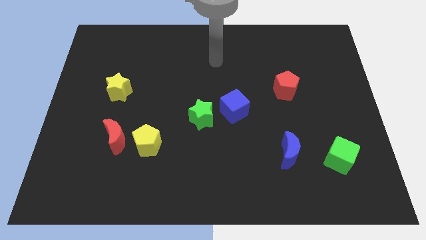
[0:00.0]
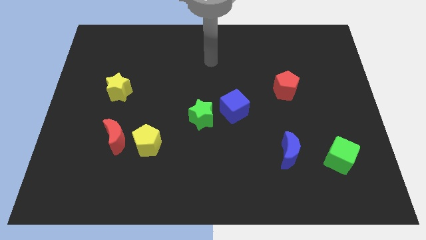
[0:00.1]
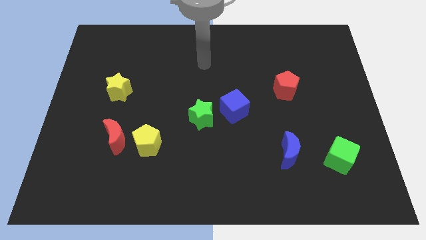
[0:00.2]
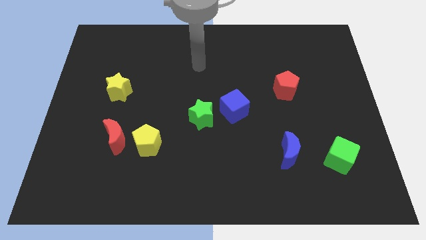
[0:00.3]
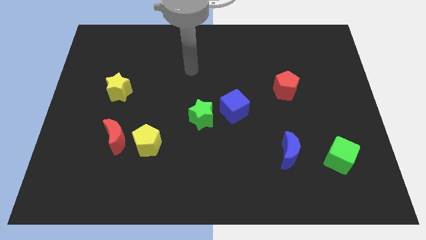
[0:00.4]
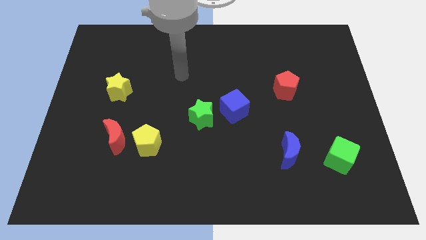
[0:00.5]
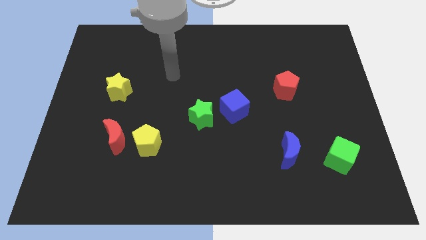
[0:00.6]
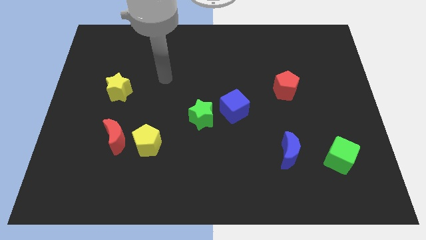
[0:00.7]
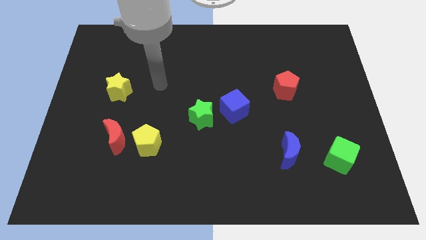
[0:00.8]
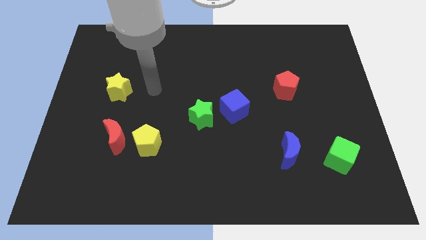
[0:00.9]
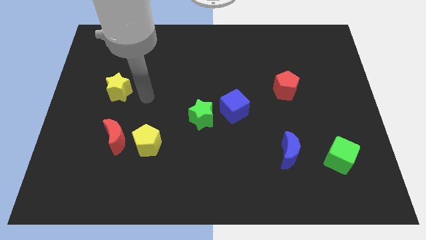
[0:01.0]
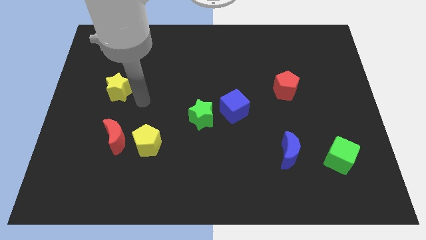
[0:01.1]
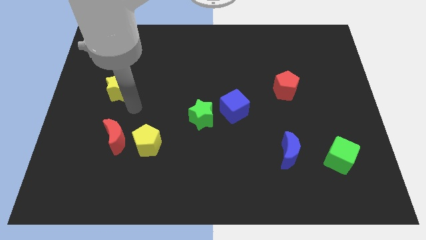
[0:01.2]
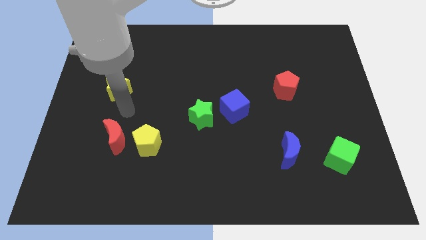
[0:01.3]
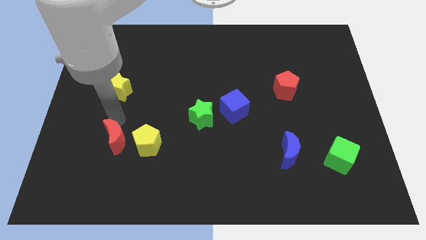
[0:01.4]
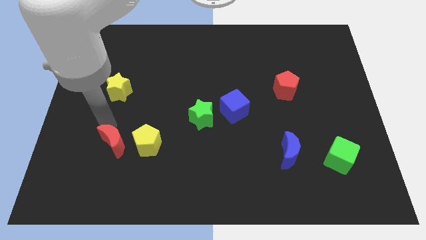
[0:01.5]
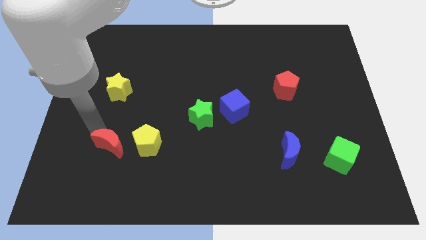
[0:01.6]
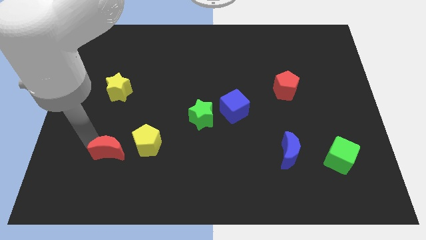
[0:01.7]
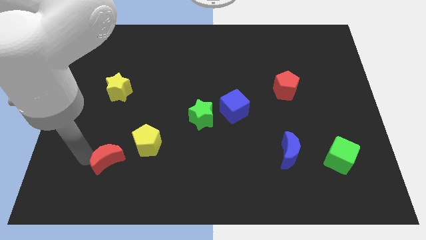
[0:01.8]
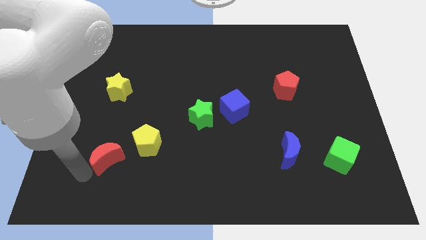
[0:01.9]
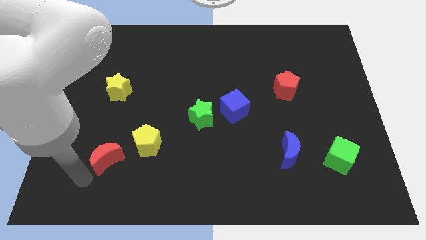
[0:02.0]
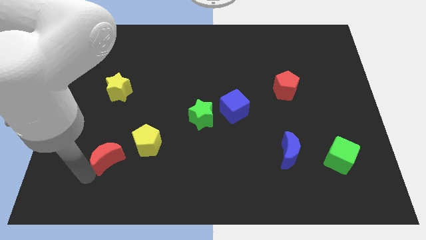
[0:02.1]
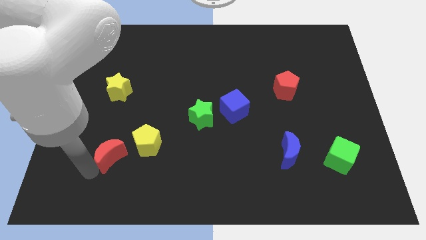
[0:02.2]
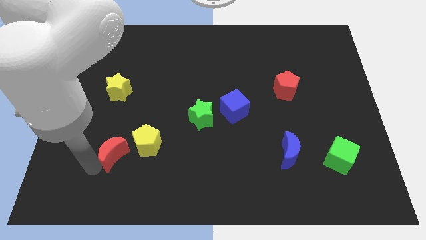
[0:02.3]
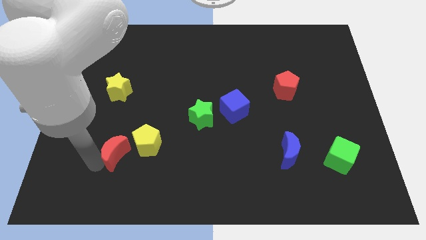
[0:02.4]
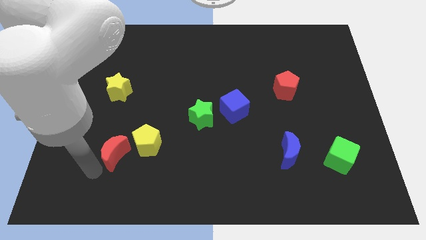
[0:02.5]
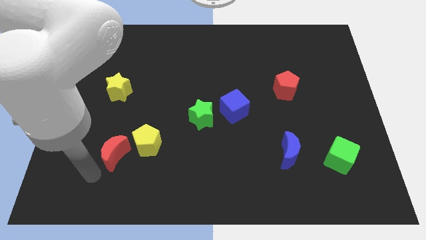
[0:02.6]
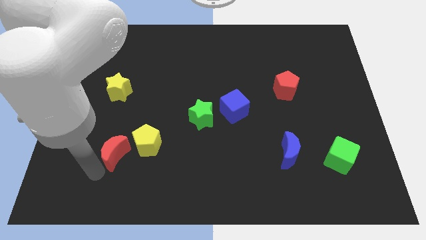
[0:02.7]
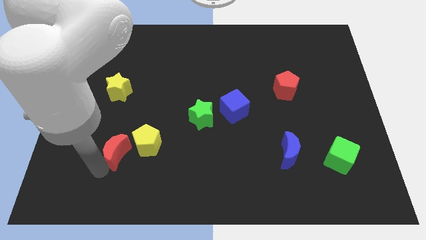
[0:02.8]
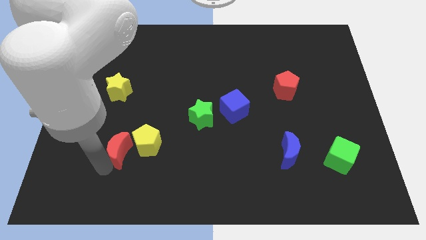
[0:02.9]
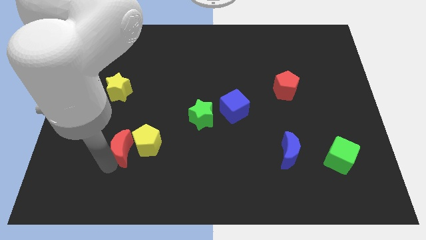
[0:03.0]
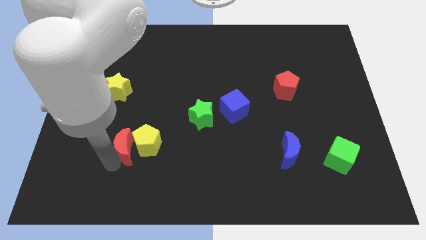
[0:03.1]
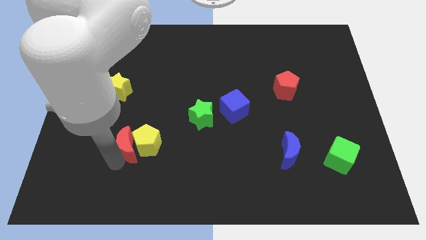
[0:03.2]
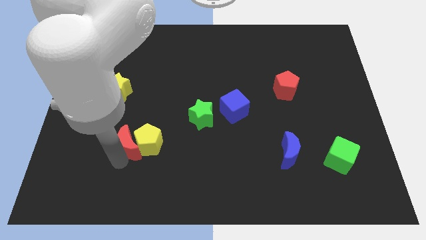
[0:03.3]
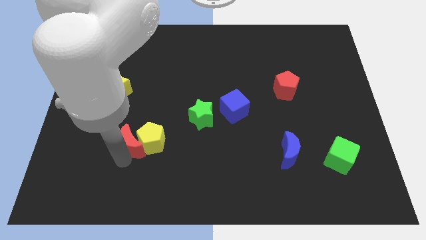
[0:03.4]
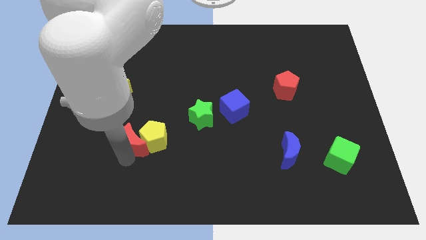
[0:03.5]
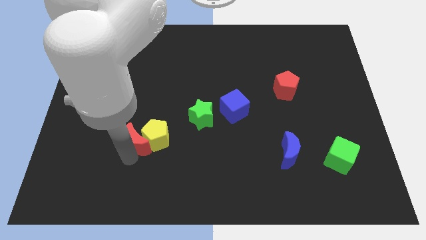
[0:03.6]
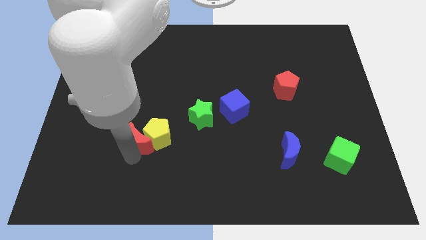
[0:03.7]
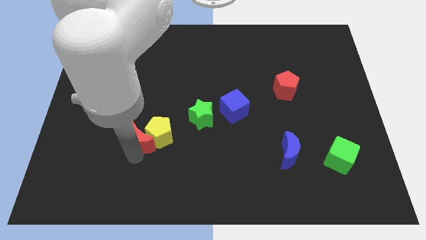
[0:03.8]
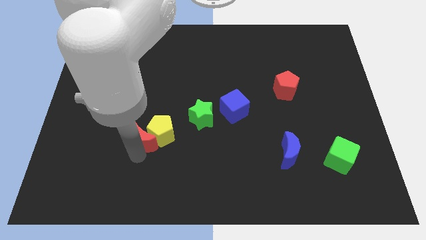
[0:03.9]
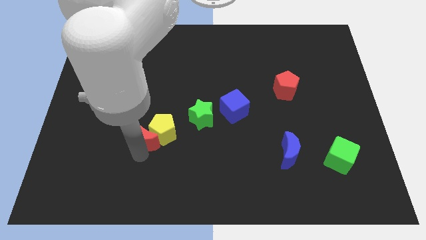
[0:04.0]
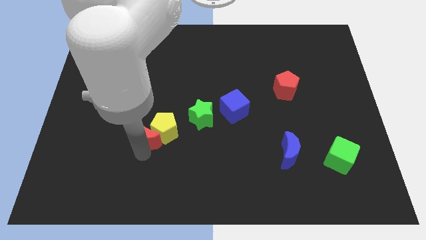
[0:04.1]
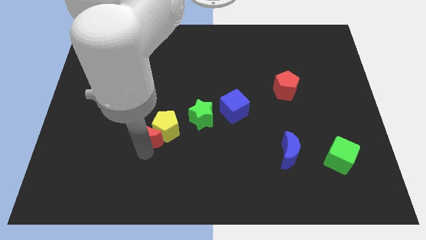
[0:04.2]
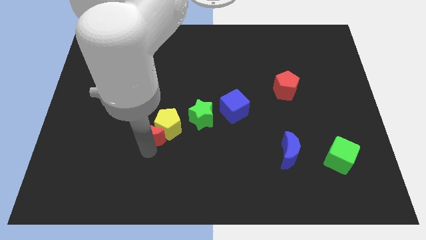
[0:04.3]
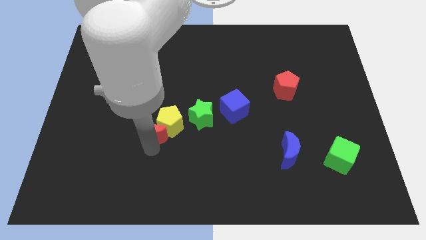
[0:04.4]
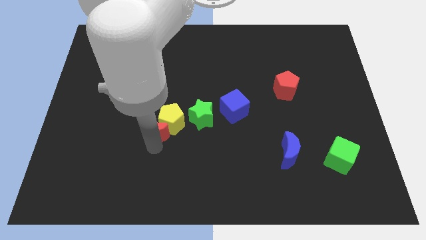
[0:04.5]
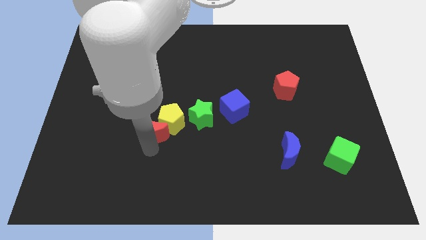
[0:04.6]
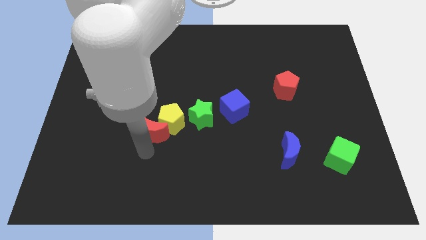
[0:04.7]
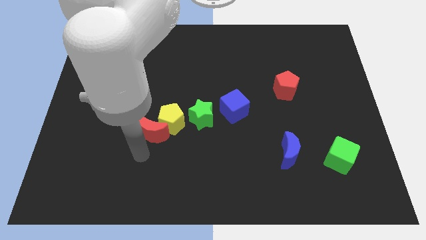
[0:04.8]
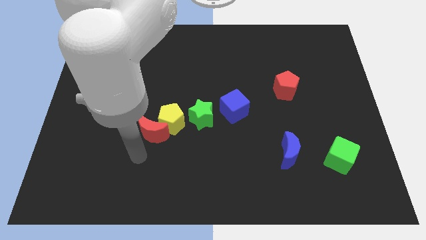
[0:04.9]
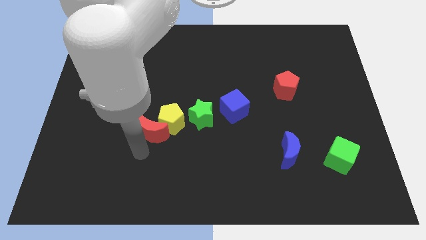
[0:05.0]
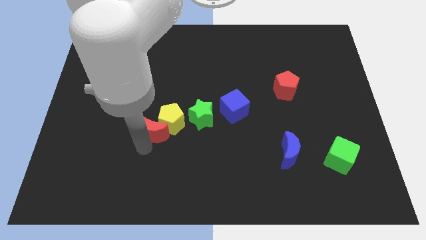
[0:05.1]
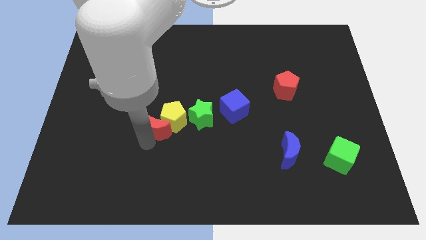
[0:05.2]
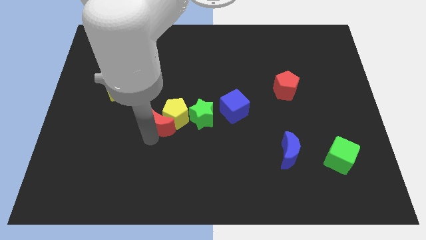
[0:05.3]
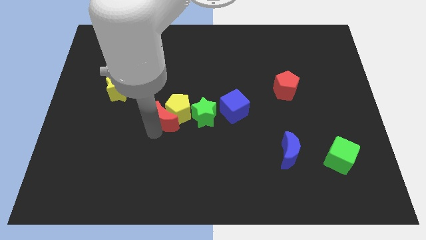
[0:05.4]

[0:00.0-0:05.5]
push the red moon to the middle of the board

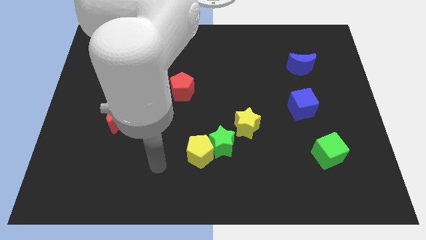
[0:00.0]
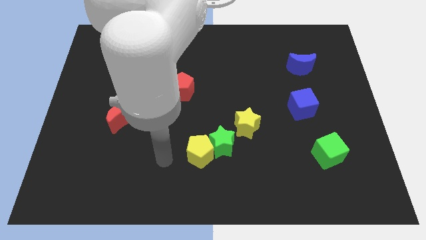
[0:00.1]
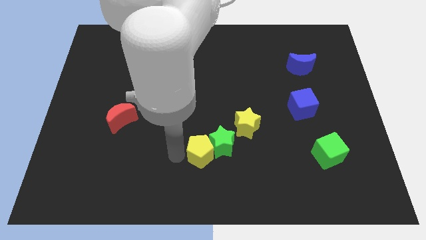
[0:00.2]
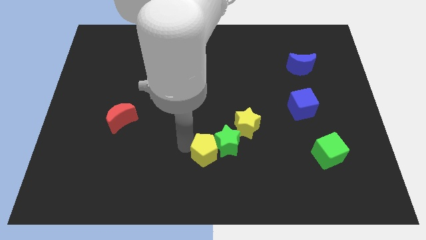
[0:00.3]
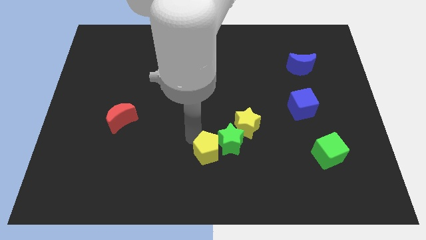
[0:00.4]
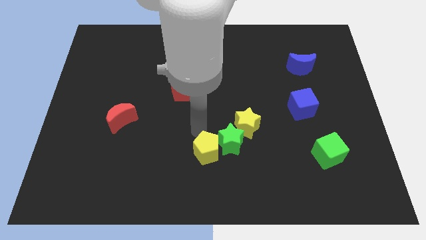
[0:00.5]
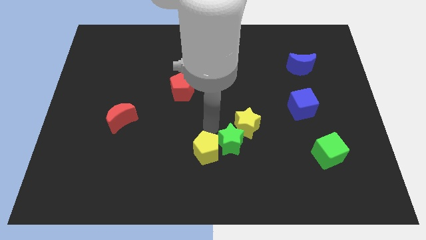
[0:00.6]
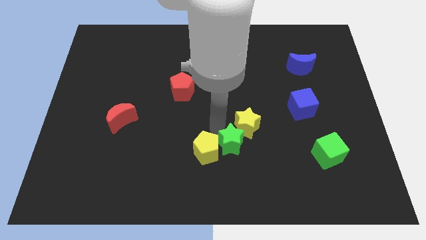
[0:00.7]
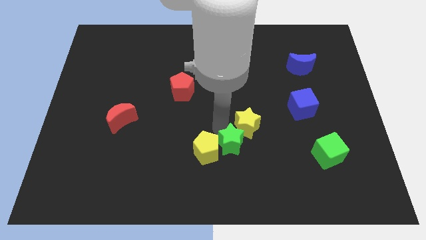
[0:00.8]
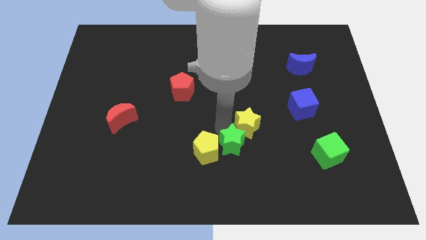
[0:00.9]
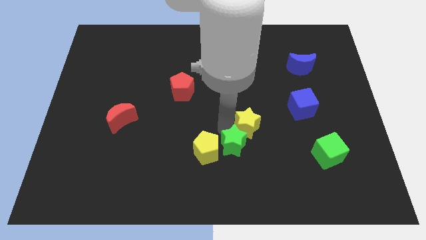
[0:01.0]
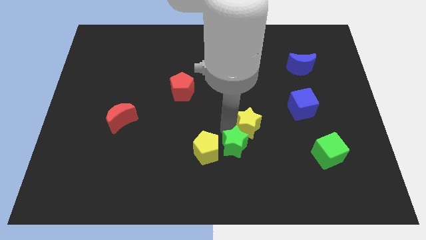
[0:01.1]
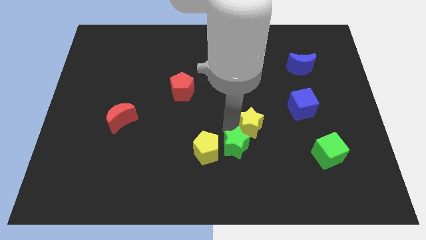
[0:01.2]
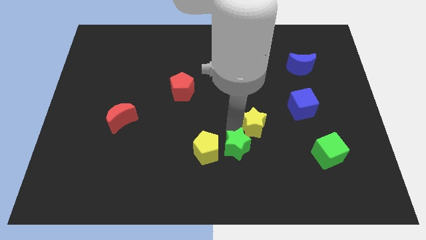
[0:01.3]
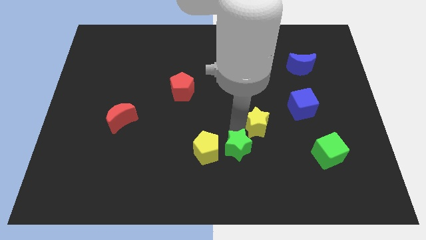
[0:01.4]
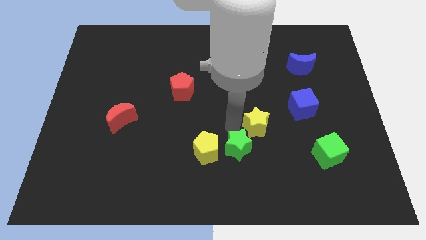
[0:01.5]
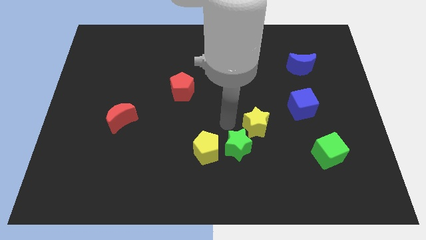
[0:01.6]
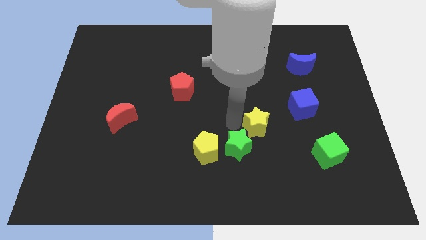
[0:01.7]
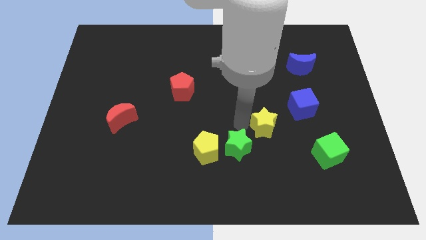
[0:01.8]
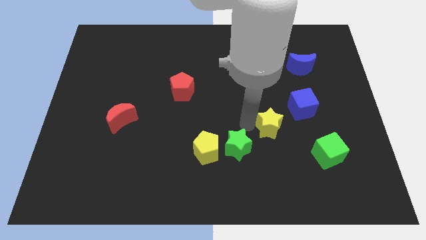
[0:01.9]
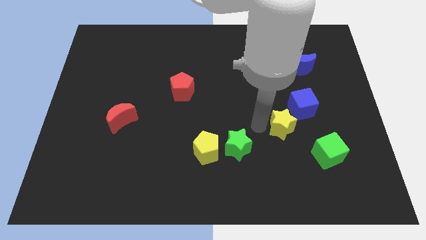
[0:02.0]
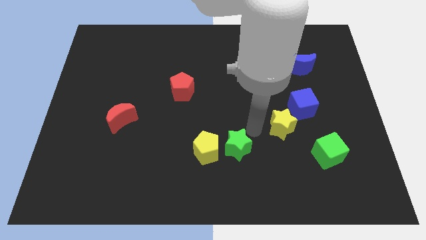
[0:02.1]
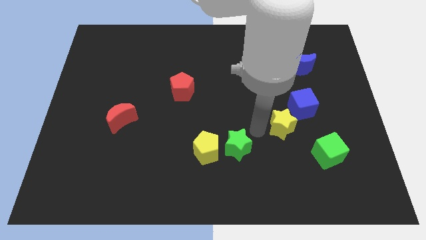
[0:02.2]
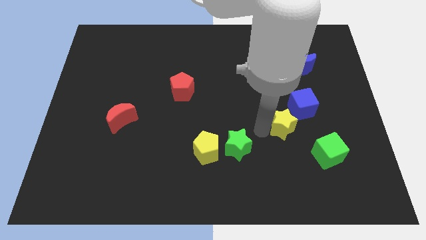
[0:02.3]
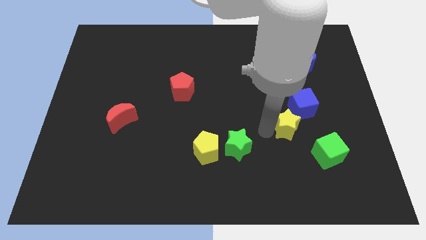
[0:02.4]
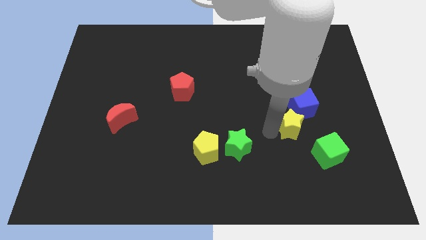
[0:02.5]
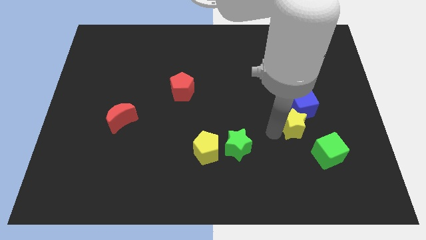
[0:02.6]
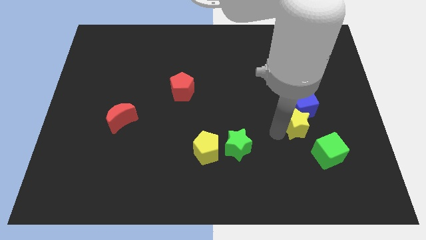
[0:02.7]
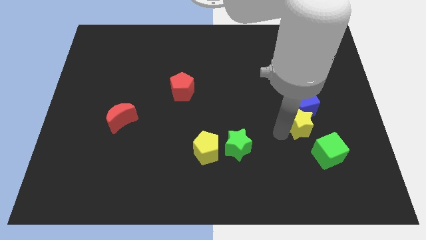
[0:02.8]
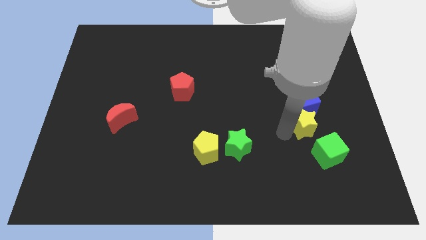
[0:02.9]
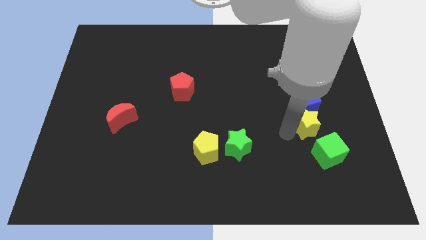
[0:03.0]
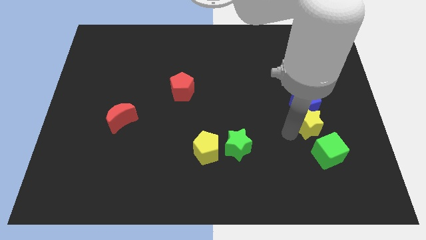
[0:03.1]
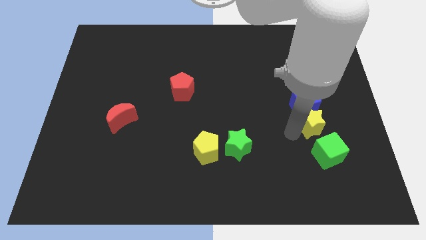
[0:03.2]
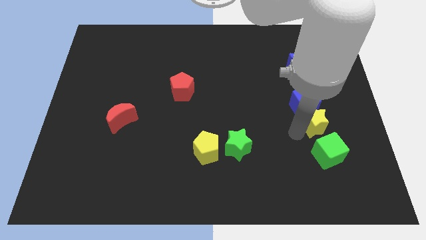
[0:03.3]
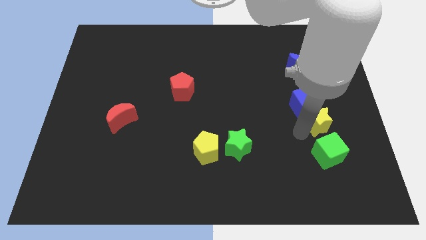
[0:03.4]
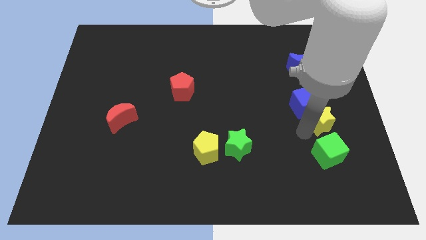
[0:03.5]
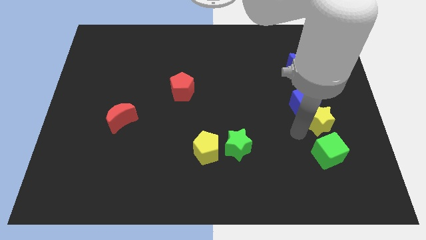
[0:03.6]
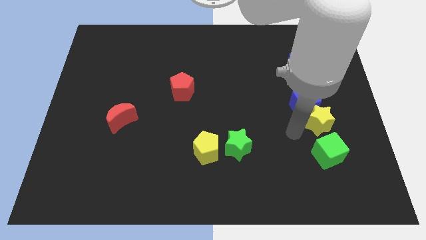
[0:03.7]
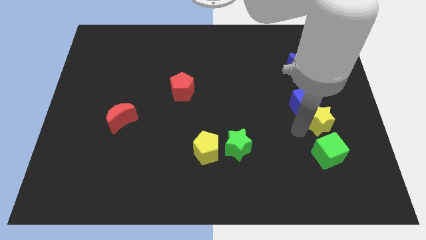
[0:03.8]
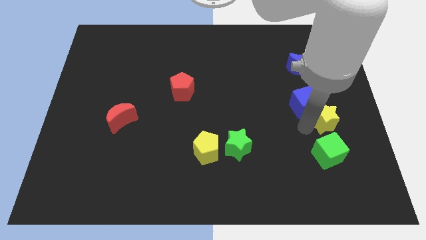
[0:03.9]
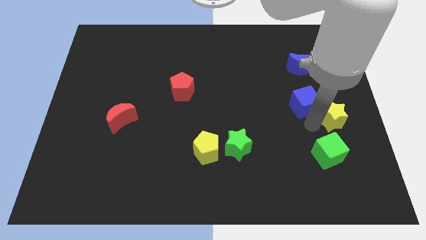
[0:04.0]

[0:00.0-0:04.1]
move the yellow star to the right side
